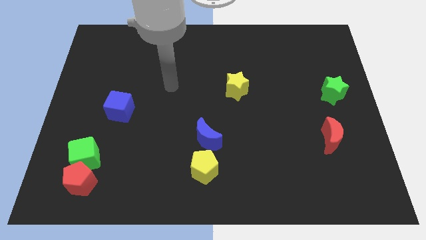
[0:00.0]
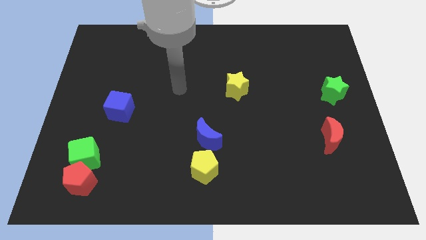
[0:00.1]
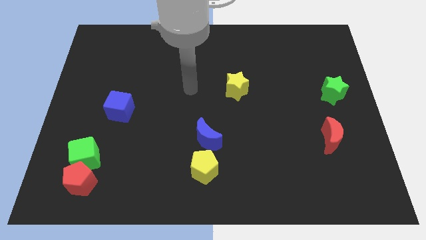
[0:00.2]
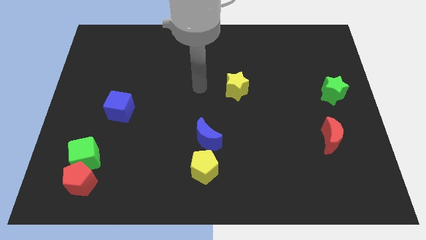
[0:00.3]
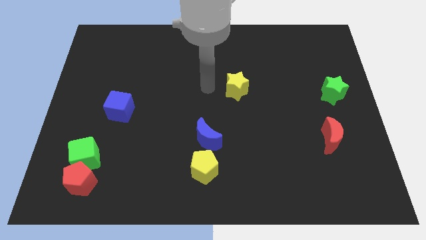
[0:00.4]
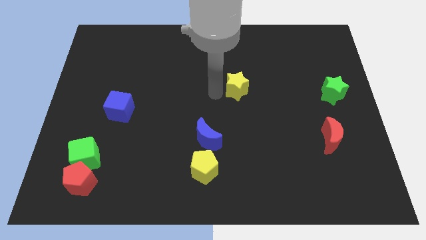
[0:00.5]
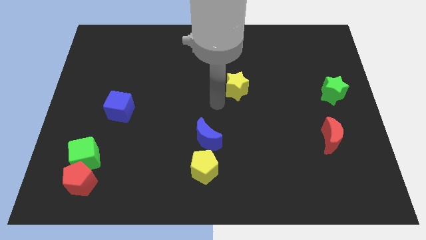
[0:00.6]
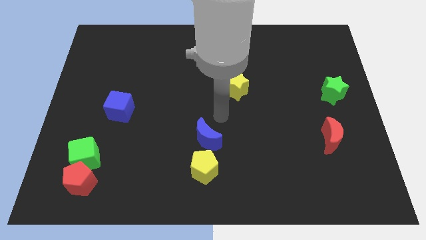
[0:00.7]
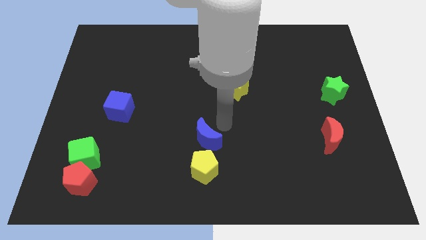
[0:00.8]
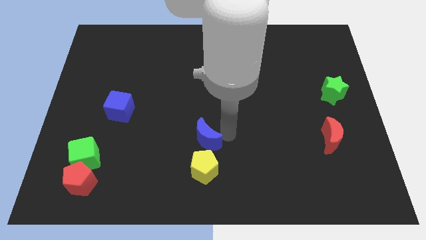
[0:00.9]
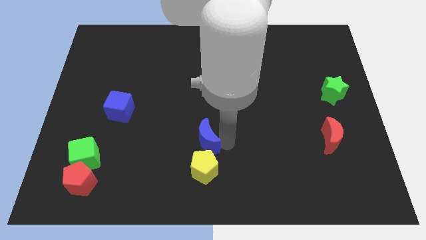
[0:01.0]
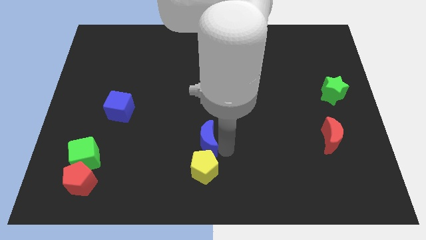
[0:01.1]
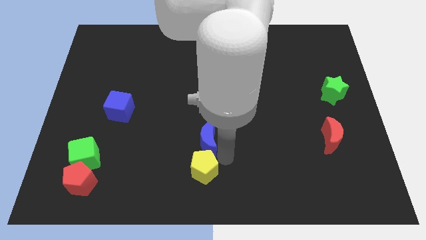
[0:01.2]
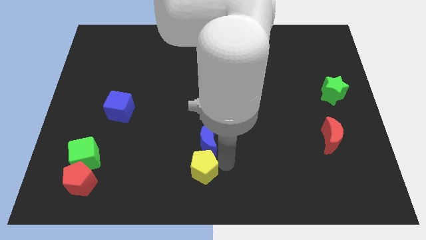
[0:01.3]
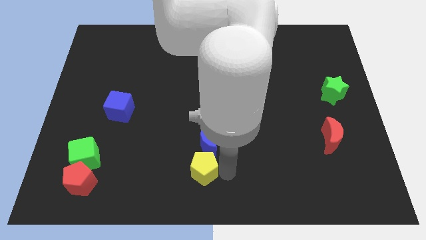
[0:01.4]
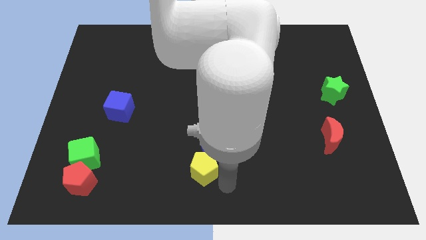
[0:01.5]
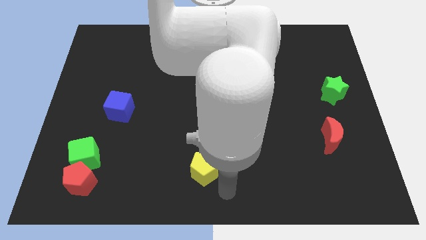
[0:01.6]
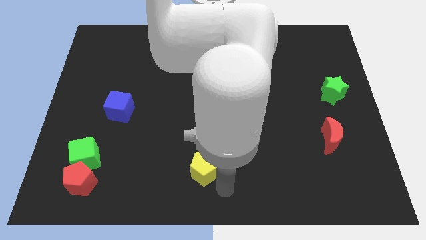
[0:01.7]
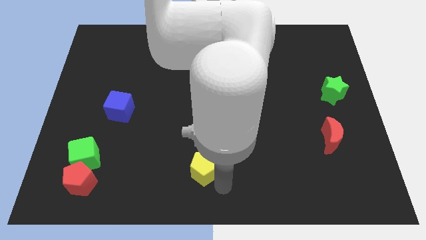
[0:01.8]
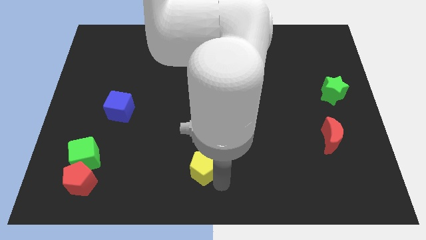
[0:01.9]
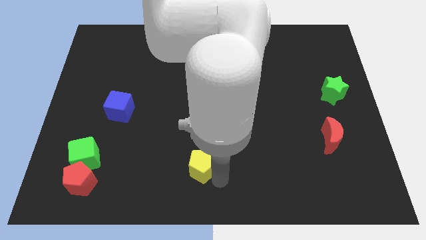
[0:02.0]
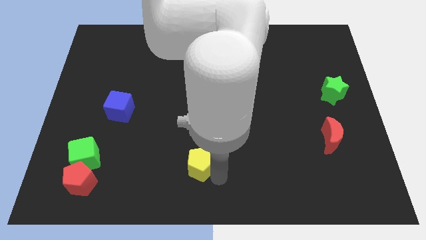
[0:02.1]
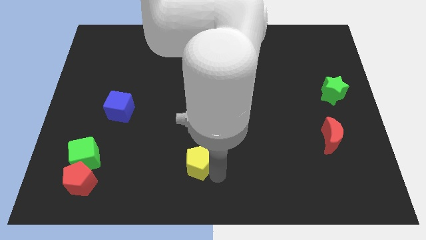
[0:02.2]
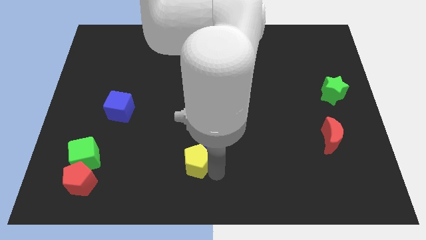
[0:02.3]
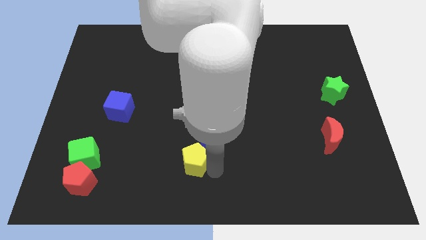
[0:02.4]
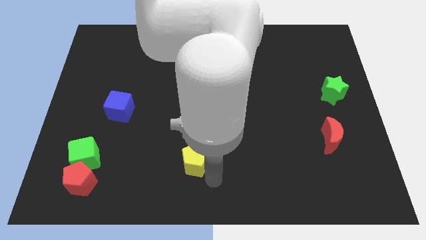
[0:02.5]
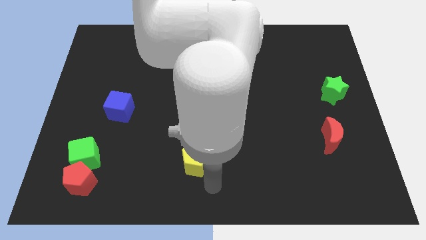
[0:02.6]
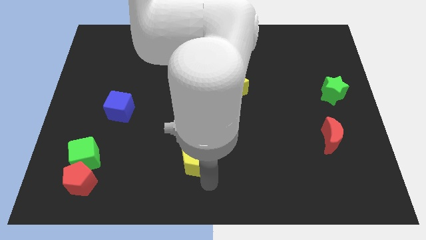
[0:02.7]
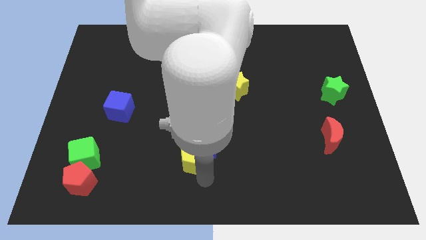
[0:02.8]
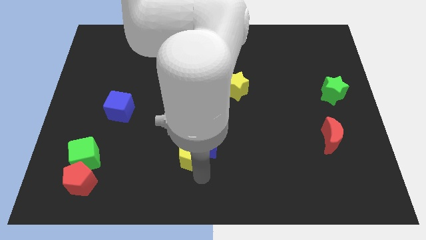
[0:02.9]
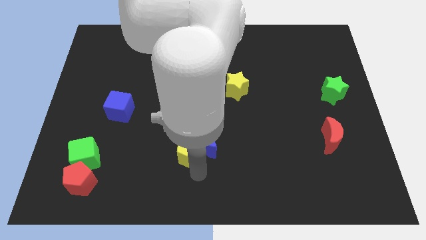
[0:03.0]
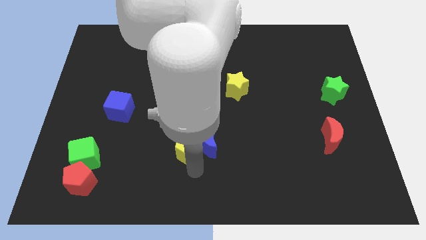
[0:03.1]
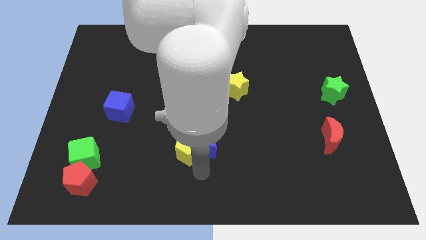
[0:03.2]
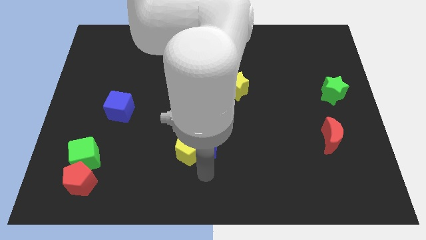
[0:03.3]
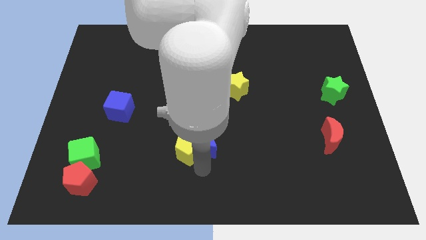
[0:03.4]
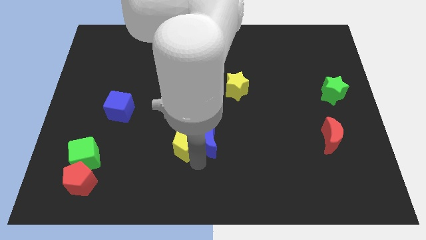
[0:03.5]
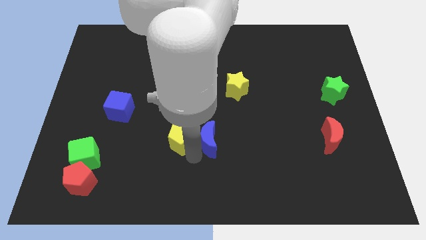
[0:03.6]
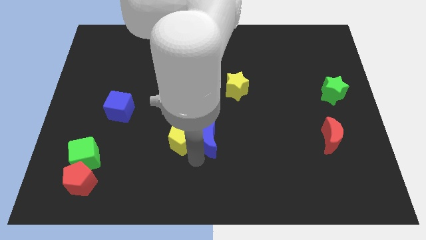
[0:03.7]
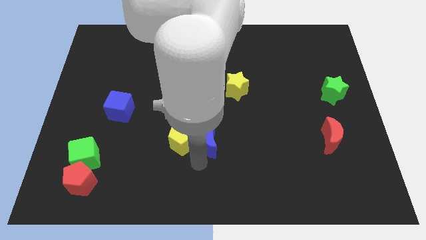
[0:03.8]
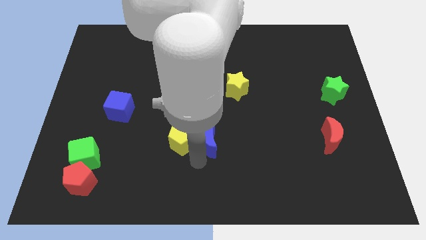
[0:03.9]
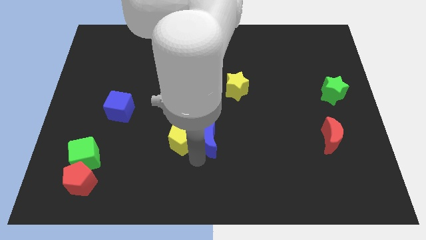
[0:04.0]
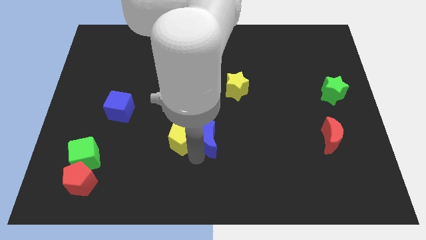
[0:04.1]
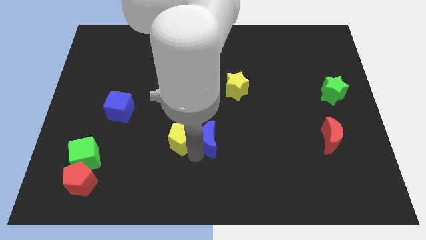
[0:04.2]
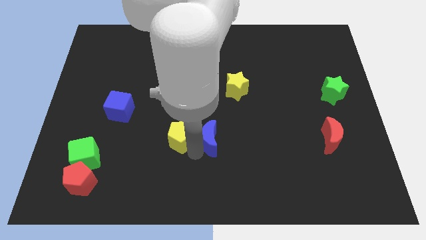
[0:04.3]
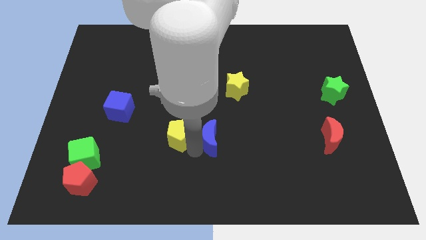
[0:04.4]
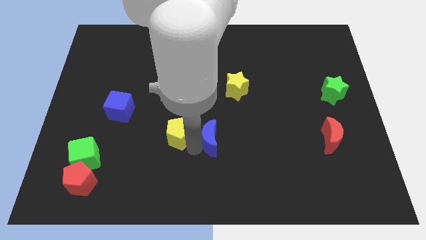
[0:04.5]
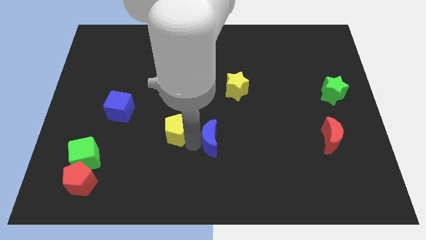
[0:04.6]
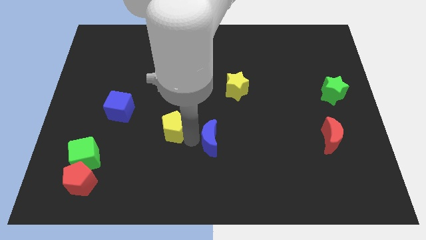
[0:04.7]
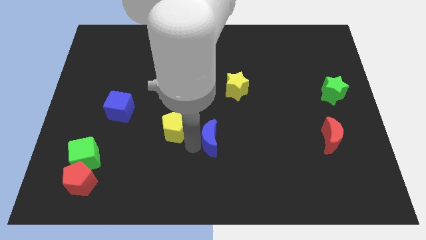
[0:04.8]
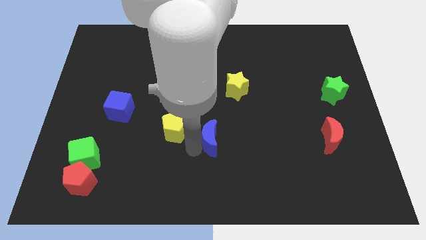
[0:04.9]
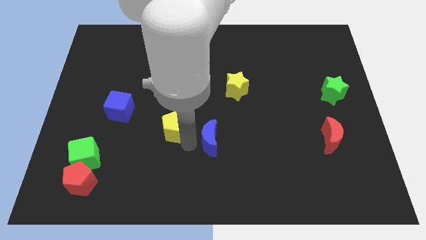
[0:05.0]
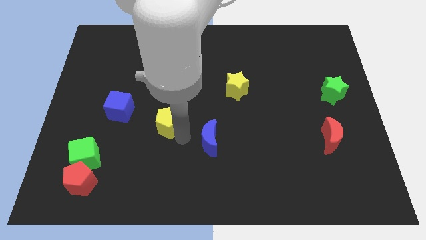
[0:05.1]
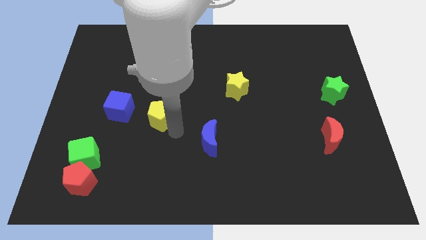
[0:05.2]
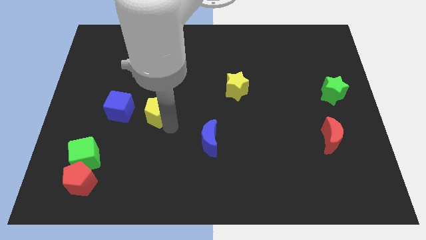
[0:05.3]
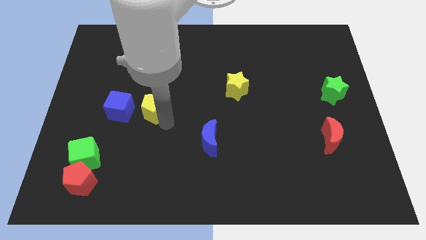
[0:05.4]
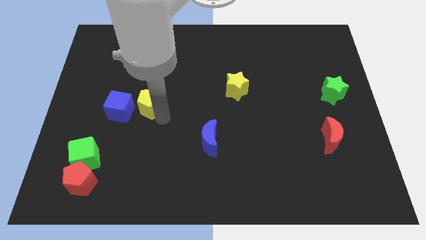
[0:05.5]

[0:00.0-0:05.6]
push the yellow pentagon upwards and then left

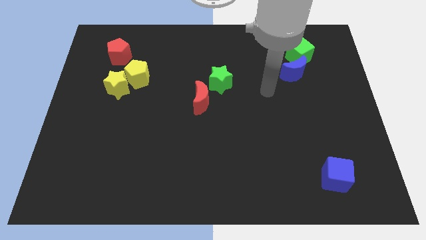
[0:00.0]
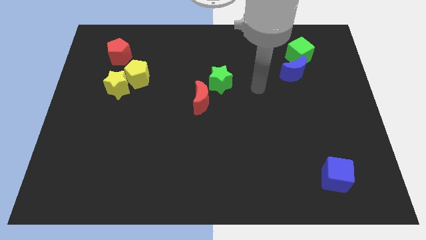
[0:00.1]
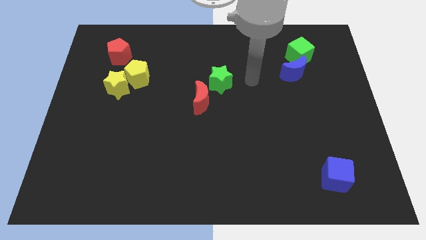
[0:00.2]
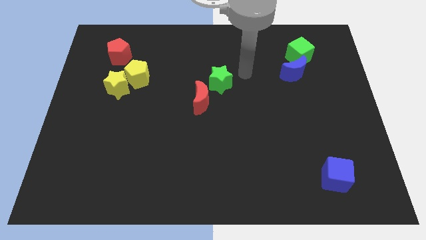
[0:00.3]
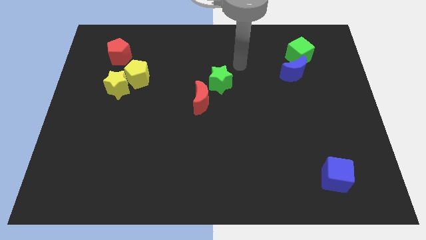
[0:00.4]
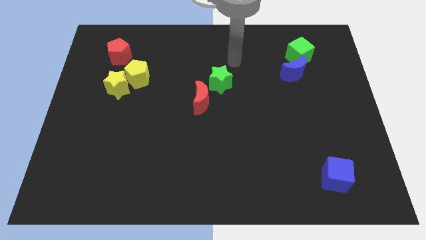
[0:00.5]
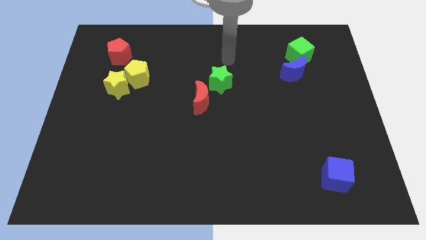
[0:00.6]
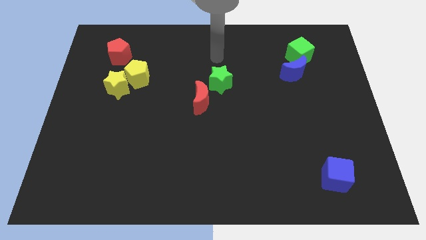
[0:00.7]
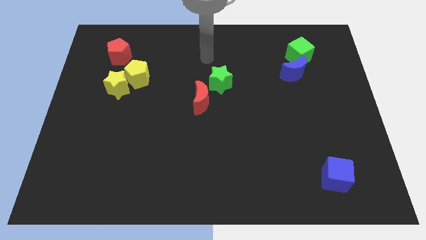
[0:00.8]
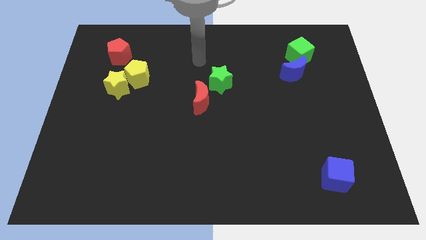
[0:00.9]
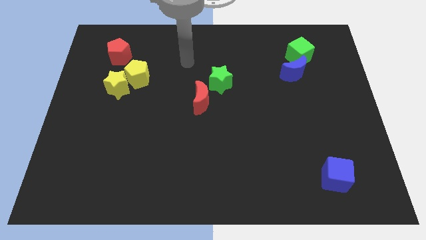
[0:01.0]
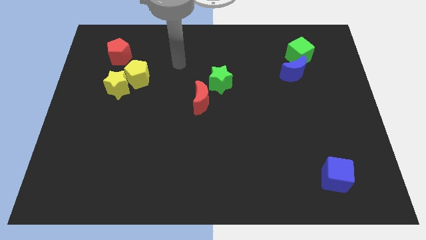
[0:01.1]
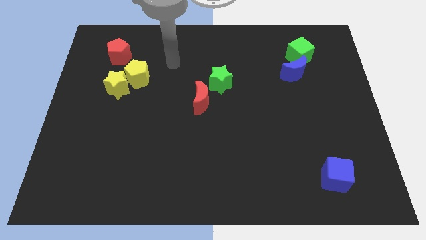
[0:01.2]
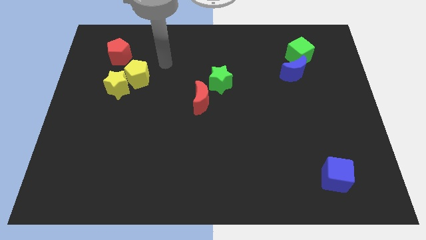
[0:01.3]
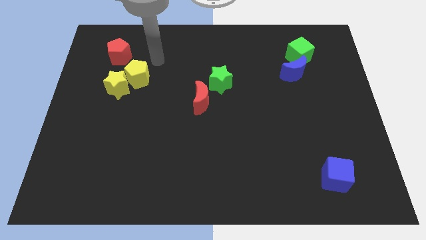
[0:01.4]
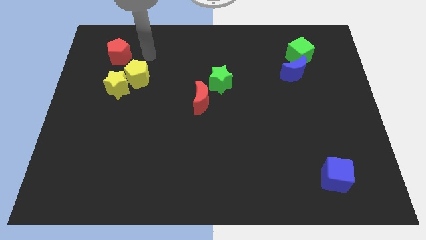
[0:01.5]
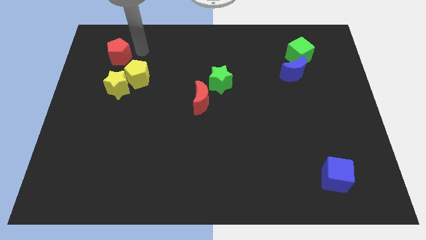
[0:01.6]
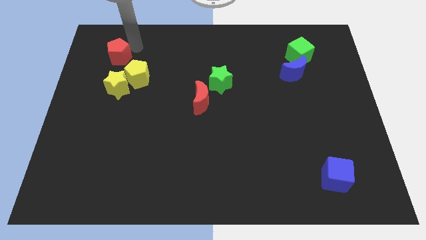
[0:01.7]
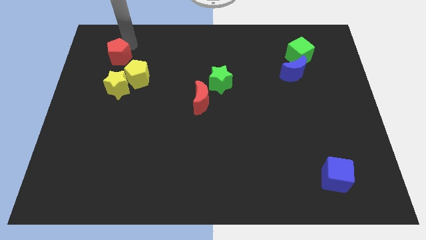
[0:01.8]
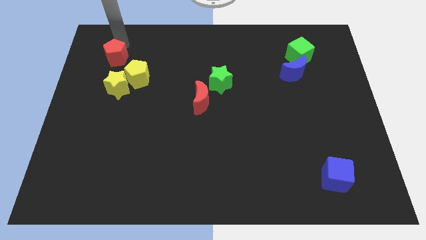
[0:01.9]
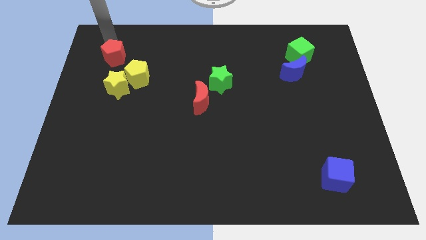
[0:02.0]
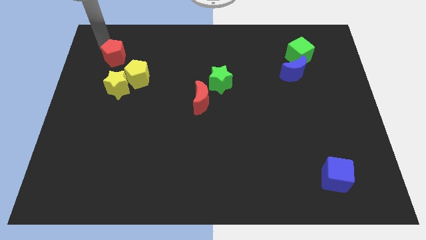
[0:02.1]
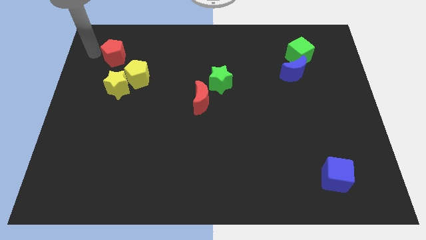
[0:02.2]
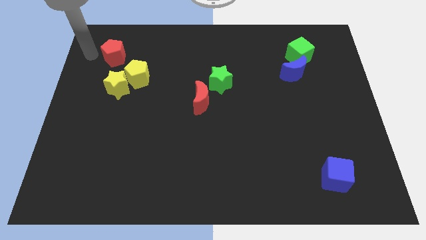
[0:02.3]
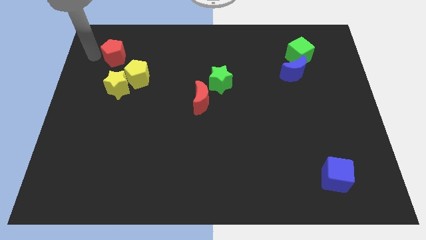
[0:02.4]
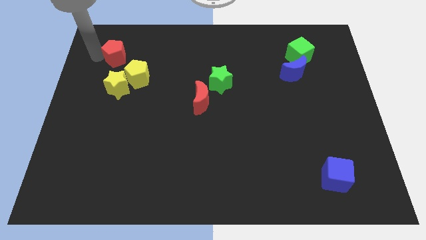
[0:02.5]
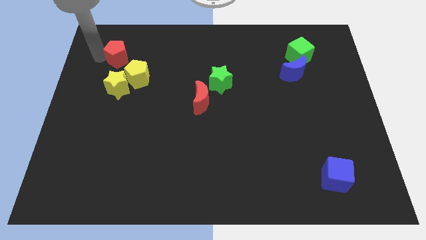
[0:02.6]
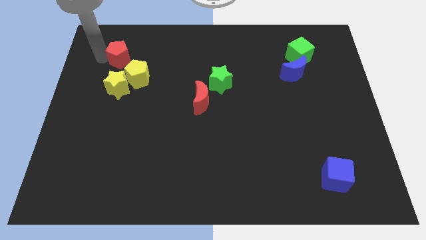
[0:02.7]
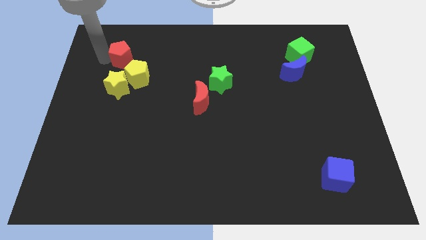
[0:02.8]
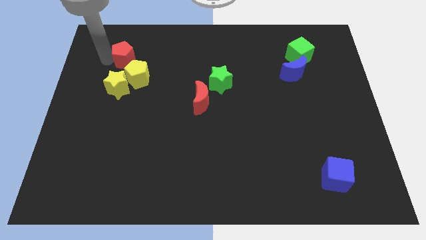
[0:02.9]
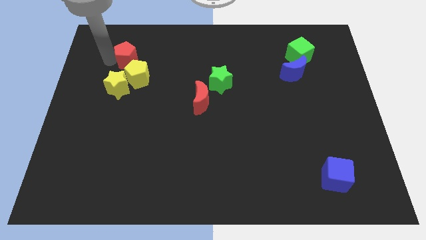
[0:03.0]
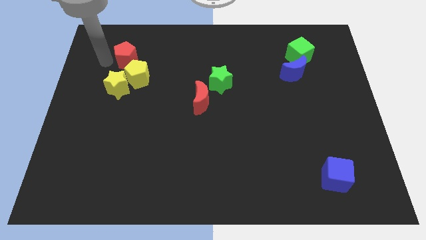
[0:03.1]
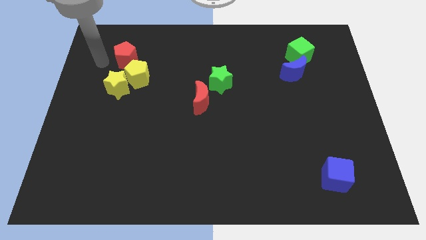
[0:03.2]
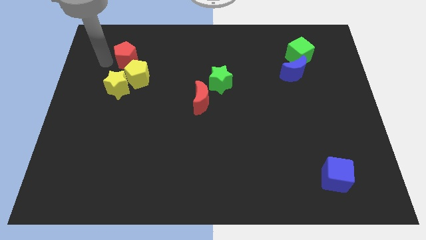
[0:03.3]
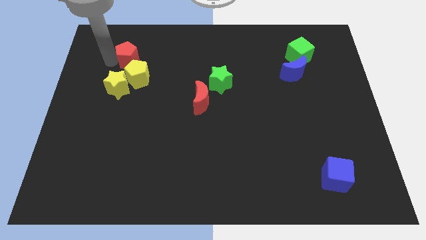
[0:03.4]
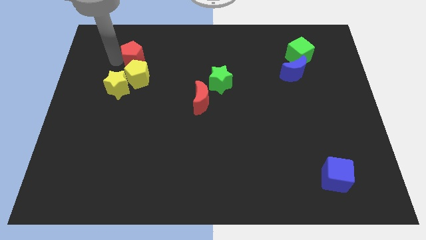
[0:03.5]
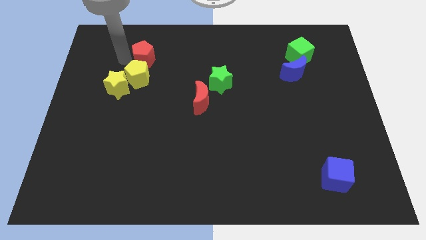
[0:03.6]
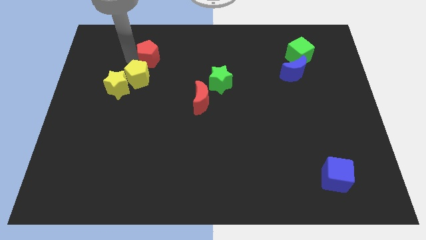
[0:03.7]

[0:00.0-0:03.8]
push the red pentagon to the right a little bit
